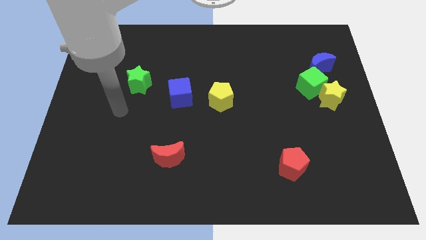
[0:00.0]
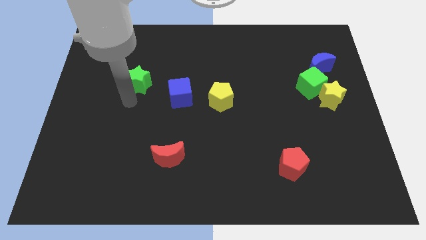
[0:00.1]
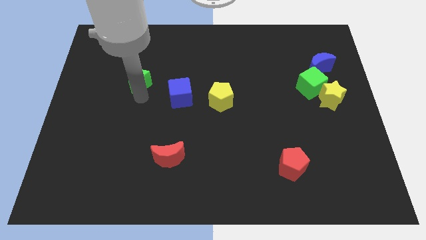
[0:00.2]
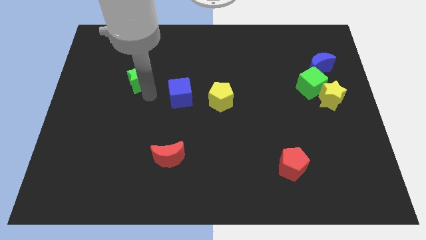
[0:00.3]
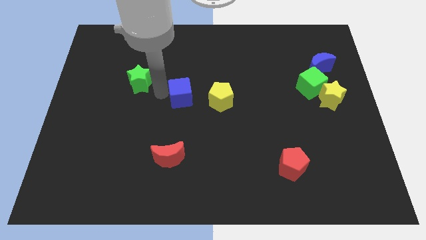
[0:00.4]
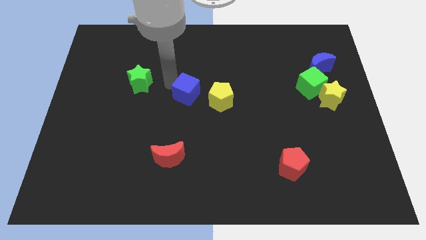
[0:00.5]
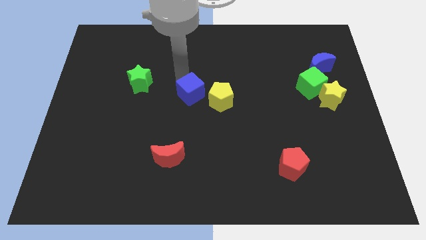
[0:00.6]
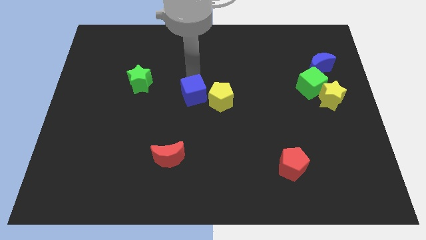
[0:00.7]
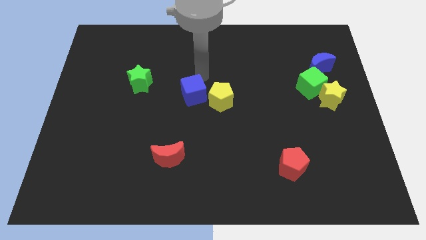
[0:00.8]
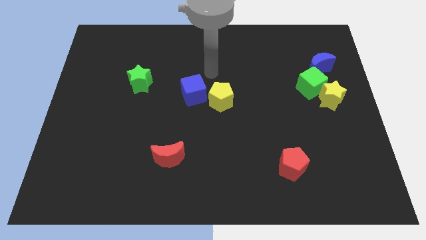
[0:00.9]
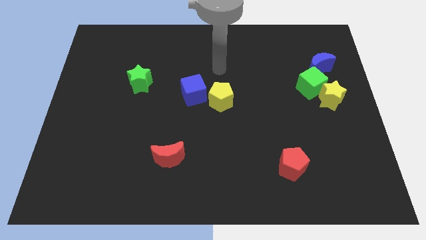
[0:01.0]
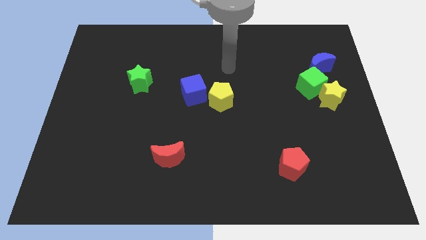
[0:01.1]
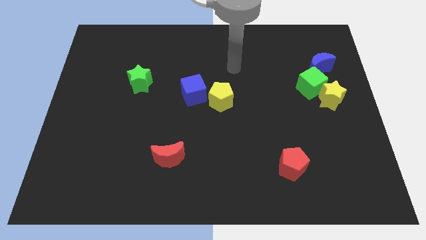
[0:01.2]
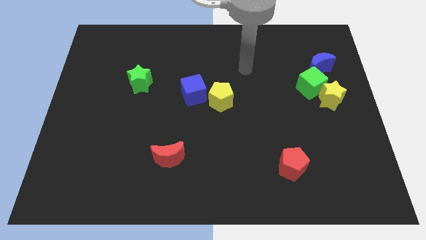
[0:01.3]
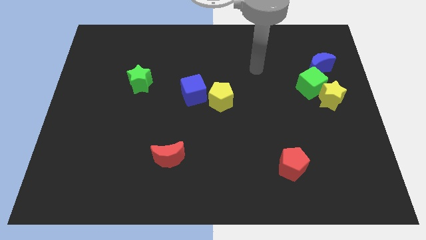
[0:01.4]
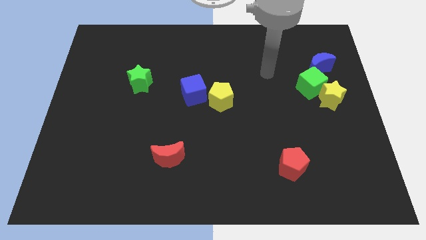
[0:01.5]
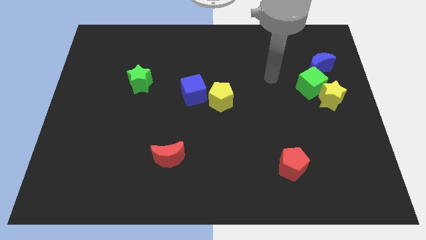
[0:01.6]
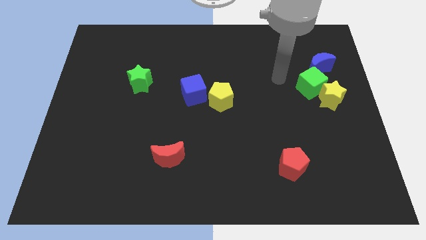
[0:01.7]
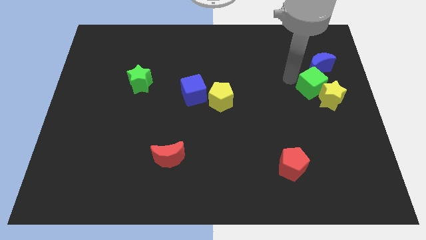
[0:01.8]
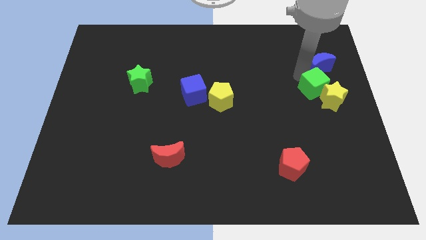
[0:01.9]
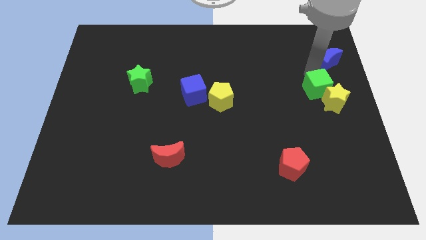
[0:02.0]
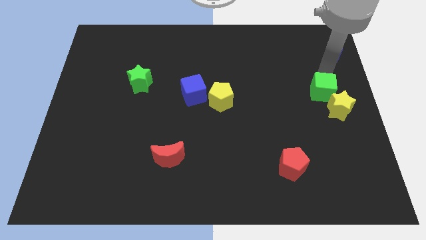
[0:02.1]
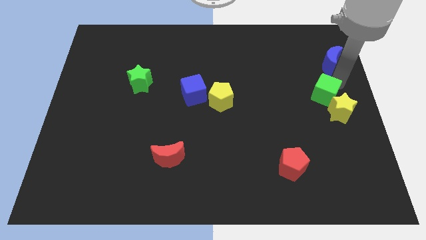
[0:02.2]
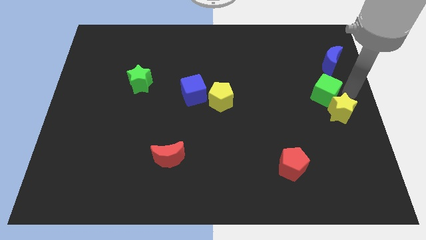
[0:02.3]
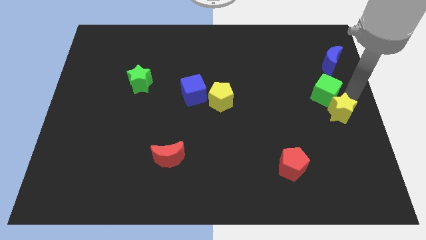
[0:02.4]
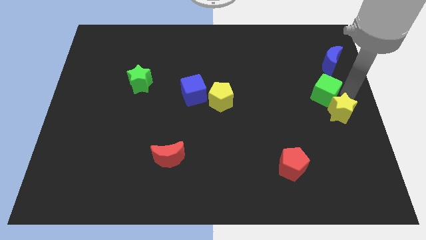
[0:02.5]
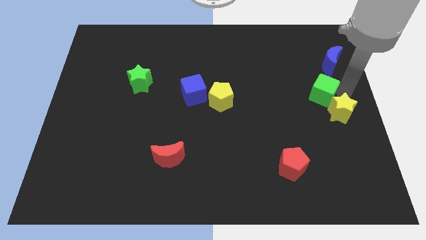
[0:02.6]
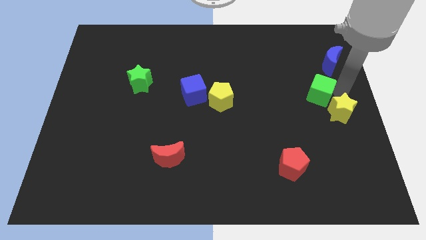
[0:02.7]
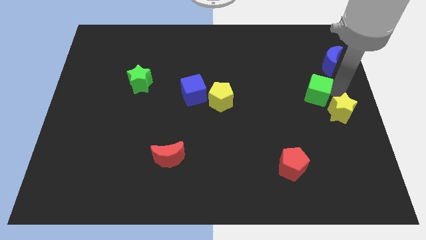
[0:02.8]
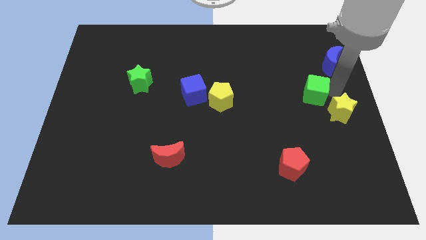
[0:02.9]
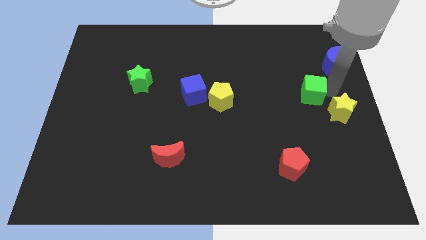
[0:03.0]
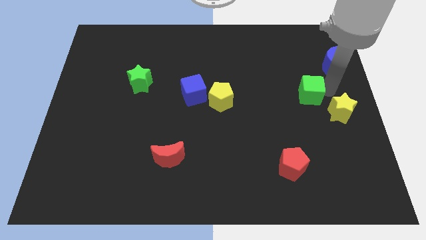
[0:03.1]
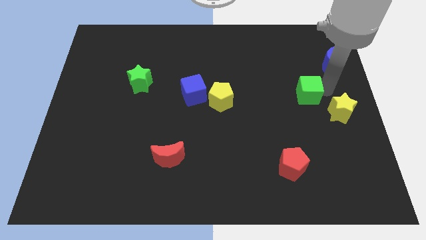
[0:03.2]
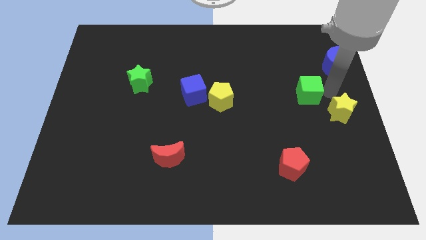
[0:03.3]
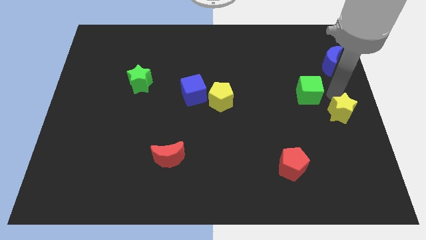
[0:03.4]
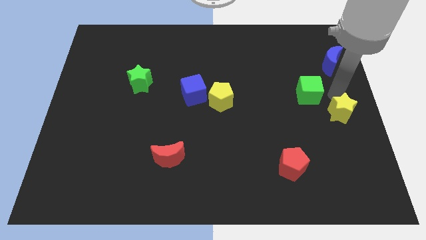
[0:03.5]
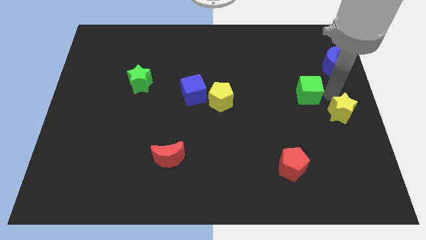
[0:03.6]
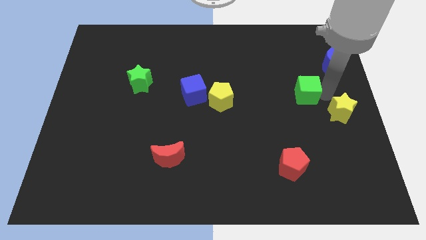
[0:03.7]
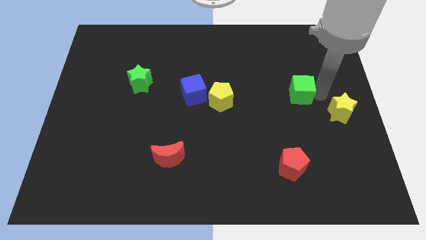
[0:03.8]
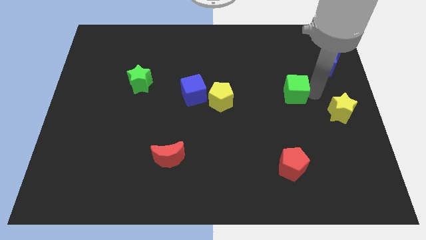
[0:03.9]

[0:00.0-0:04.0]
pull the green cube apart from the yellow star and blue moon

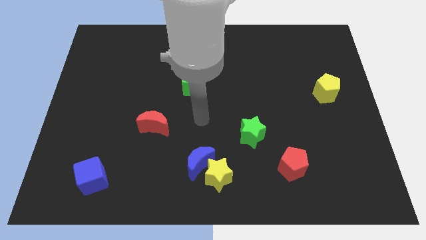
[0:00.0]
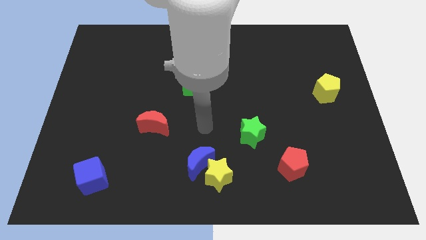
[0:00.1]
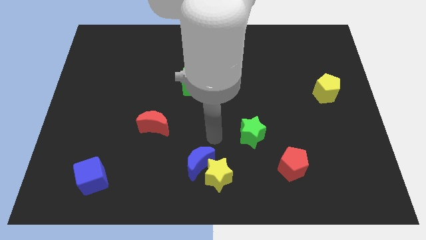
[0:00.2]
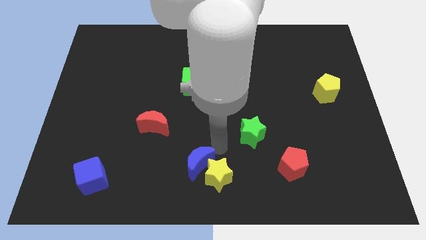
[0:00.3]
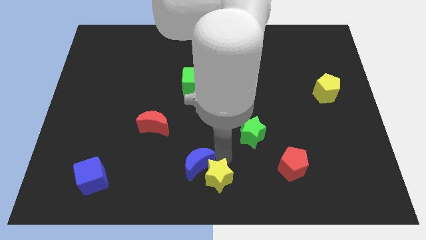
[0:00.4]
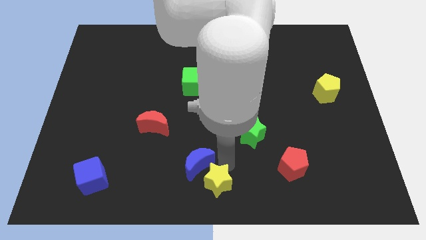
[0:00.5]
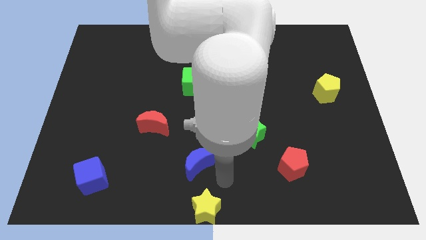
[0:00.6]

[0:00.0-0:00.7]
pull the blue moon apart from the yellow star

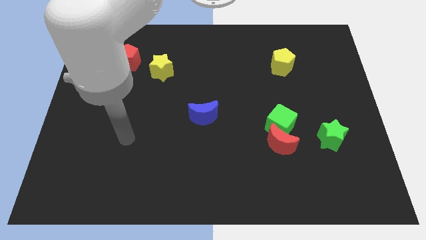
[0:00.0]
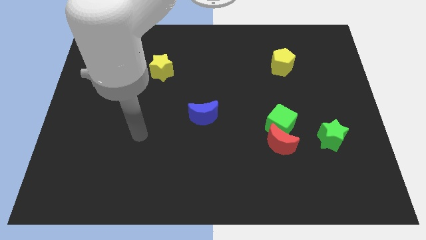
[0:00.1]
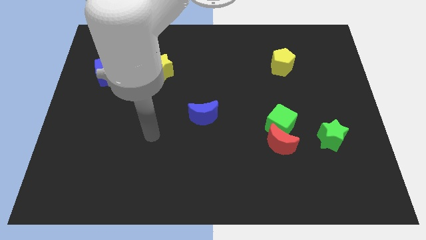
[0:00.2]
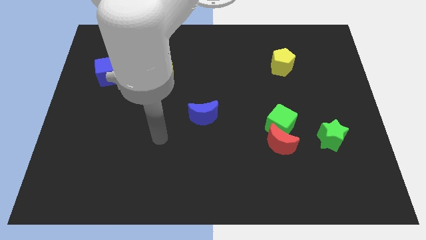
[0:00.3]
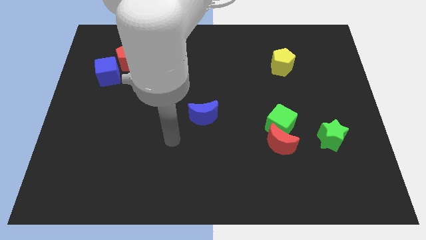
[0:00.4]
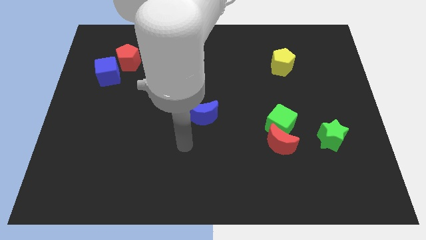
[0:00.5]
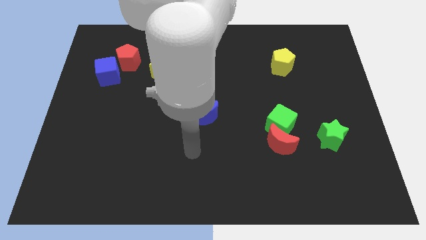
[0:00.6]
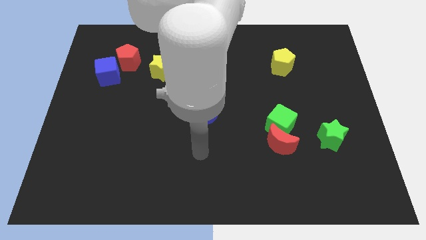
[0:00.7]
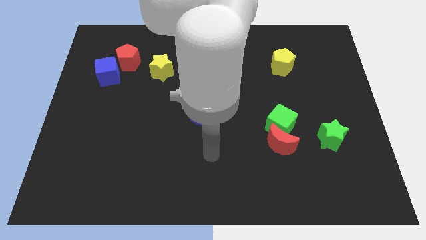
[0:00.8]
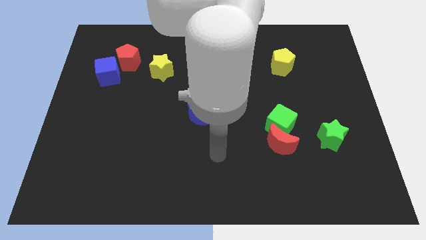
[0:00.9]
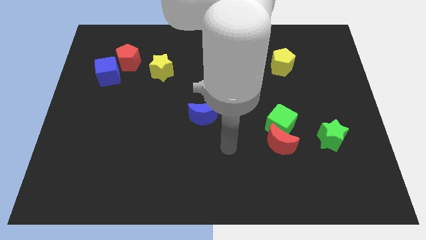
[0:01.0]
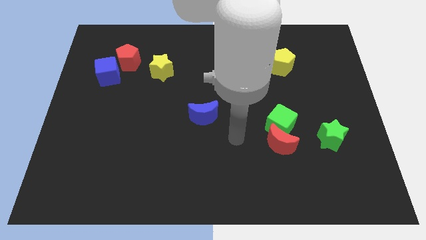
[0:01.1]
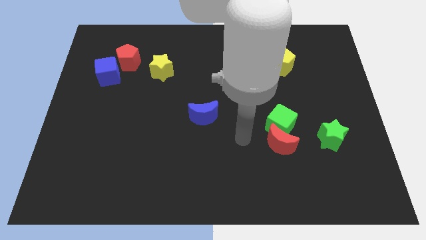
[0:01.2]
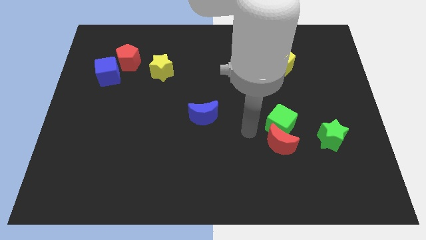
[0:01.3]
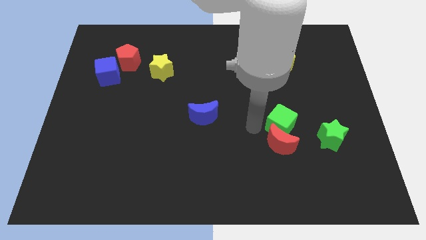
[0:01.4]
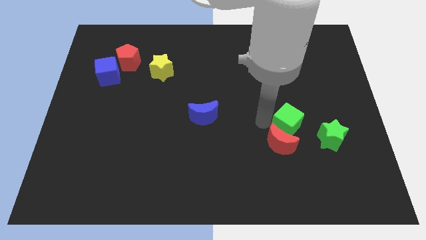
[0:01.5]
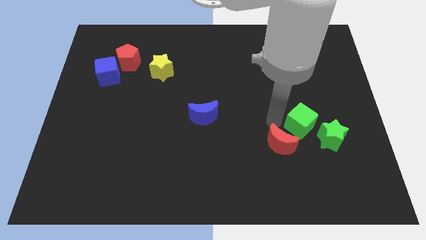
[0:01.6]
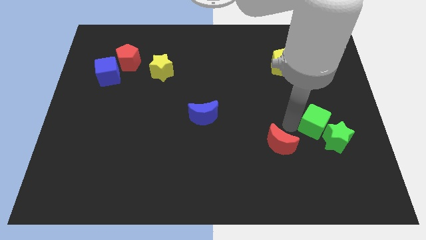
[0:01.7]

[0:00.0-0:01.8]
separate the red moon from the green cube

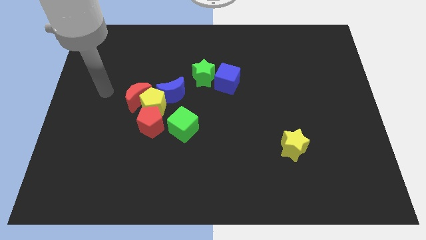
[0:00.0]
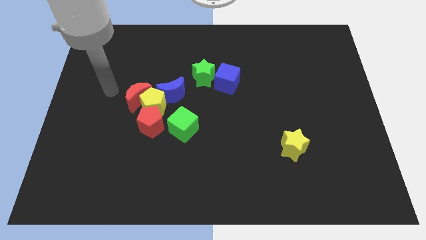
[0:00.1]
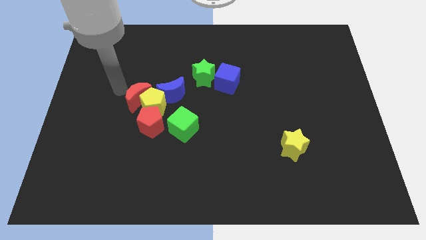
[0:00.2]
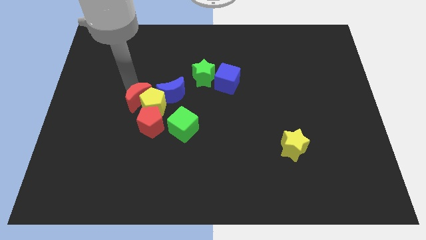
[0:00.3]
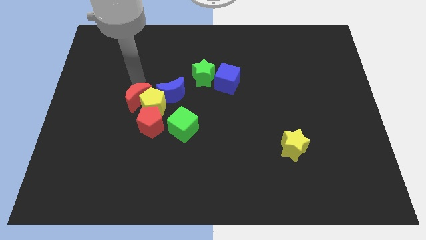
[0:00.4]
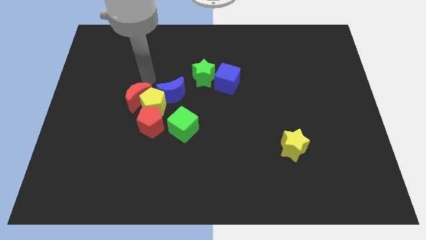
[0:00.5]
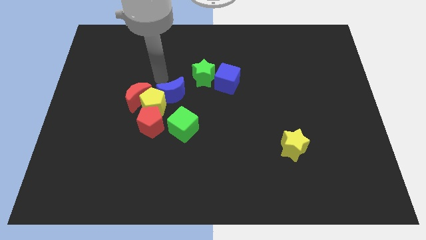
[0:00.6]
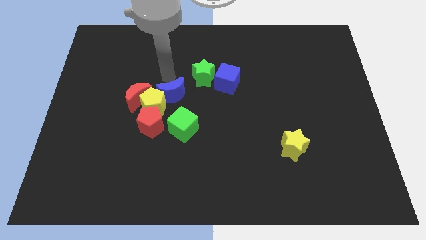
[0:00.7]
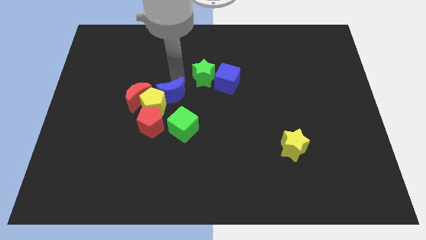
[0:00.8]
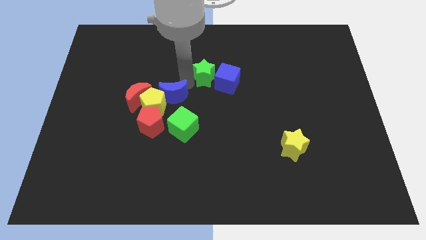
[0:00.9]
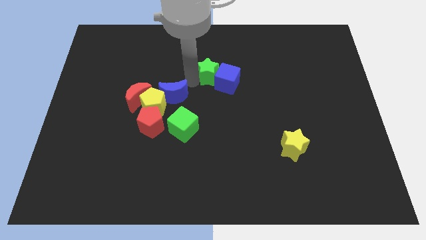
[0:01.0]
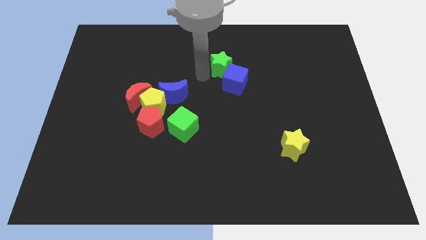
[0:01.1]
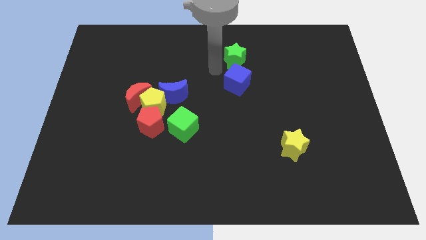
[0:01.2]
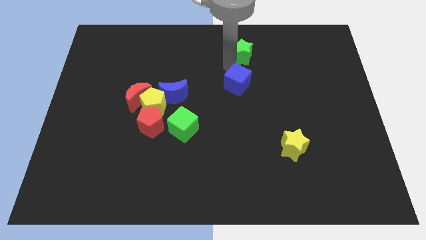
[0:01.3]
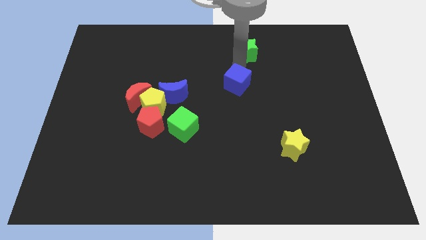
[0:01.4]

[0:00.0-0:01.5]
move the blue cube away from the green star

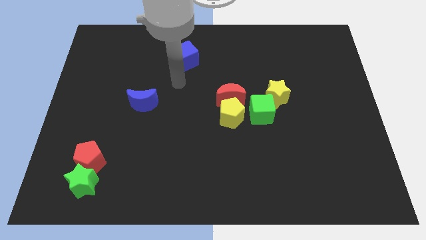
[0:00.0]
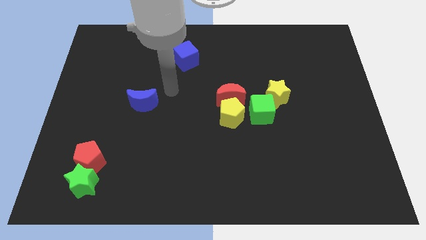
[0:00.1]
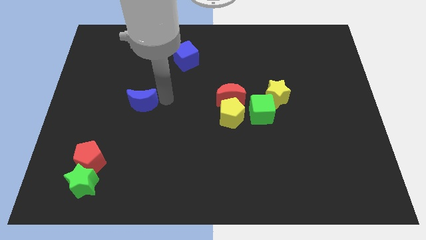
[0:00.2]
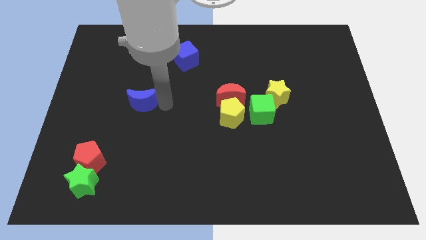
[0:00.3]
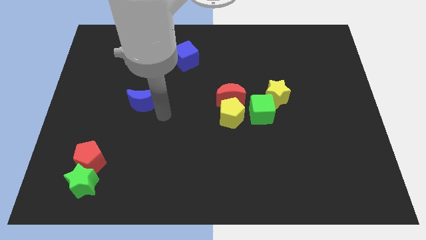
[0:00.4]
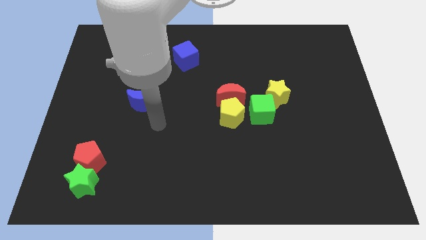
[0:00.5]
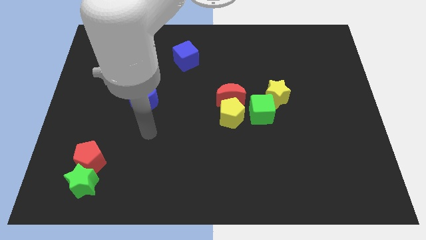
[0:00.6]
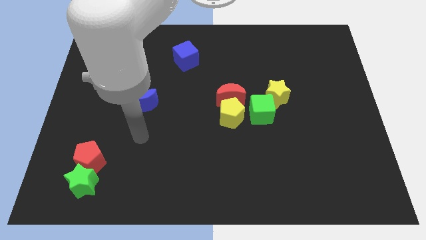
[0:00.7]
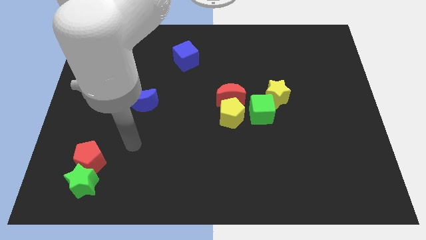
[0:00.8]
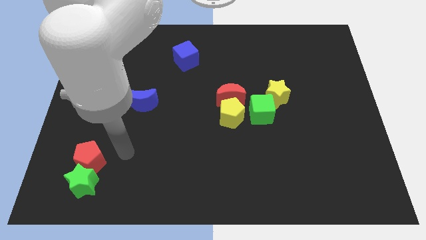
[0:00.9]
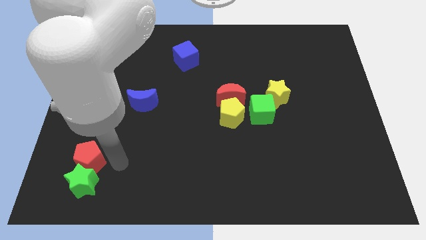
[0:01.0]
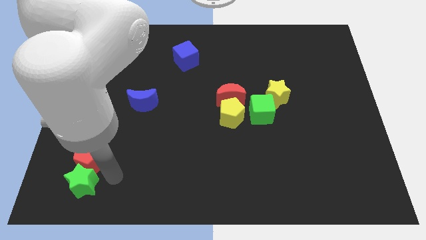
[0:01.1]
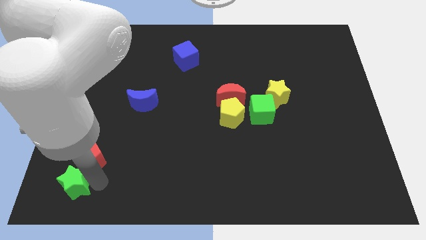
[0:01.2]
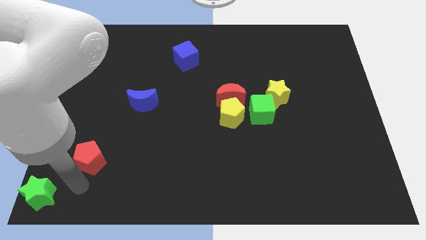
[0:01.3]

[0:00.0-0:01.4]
separate the red pentagon from the green star
